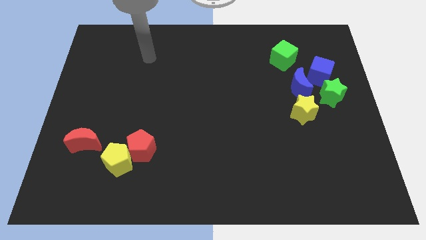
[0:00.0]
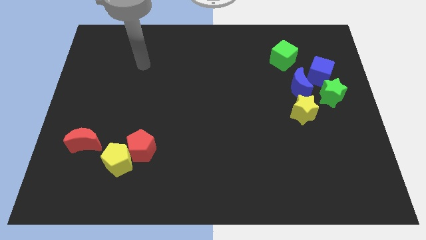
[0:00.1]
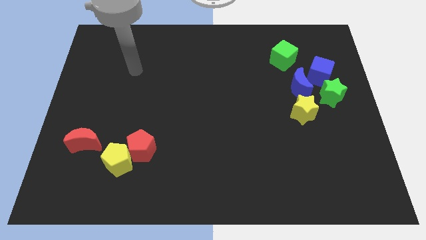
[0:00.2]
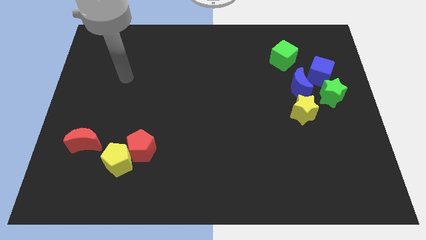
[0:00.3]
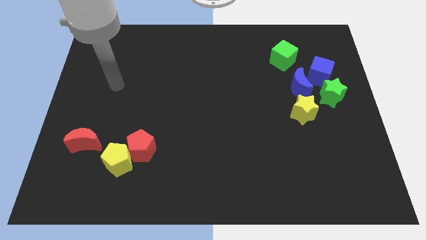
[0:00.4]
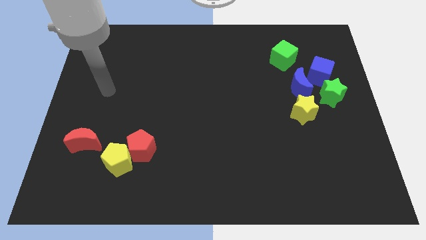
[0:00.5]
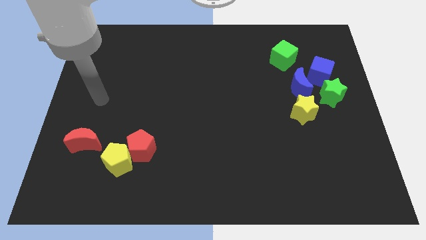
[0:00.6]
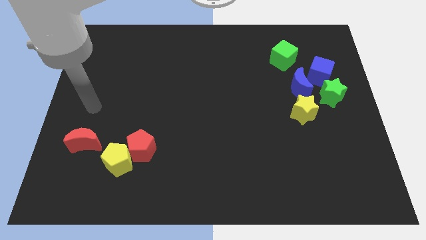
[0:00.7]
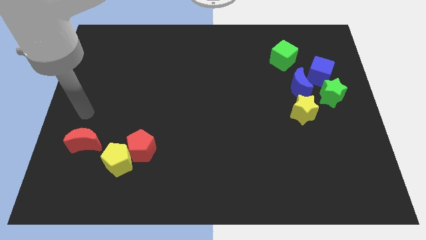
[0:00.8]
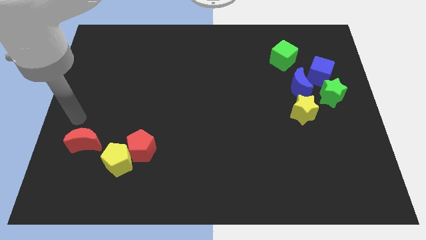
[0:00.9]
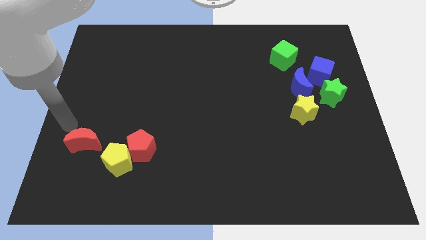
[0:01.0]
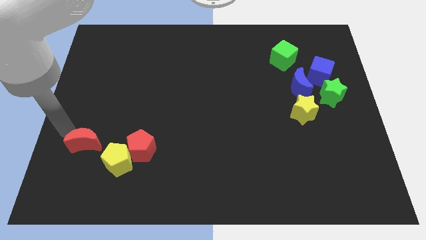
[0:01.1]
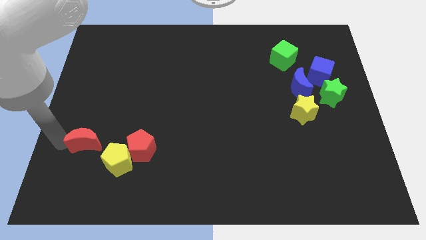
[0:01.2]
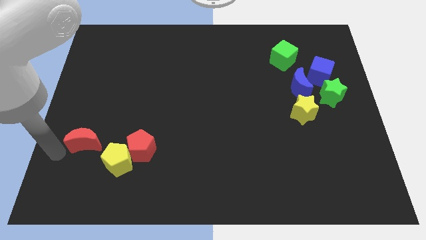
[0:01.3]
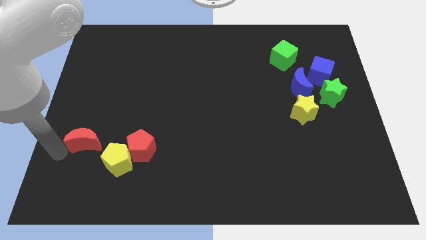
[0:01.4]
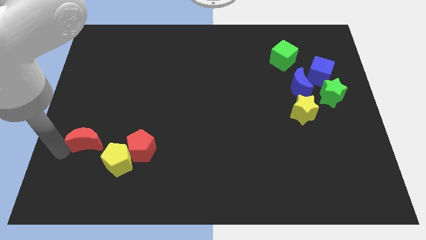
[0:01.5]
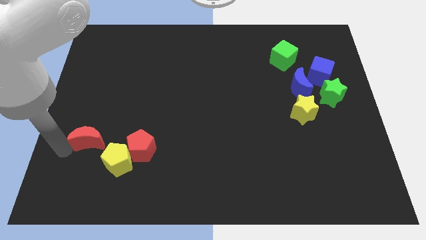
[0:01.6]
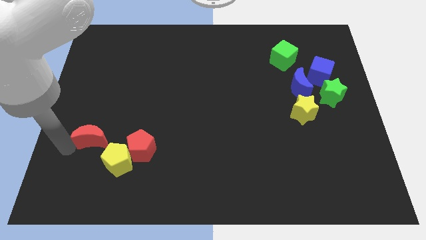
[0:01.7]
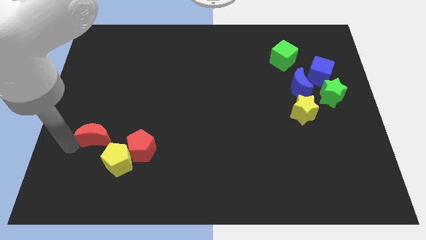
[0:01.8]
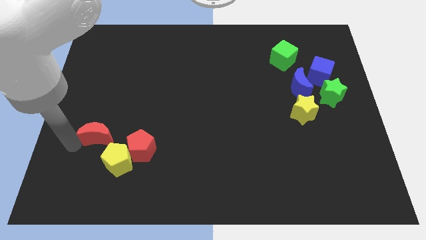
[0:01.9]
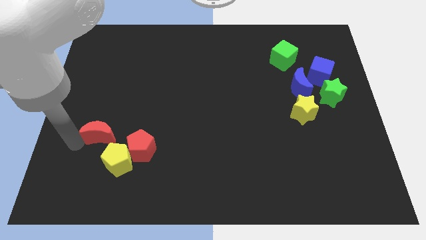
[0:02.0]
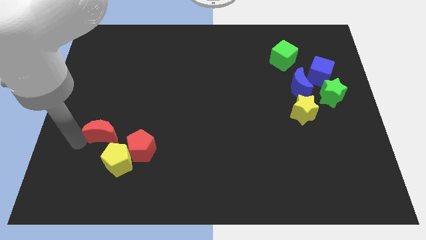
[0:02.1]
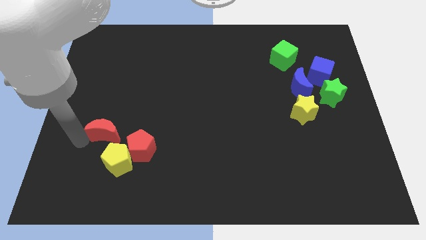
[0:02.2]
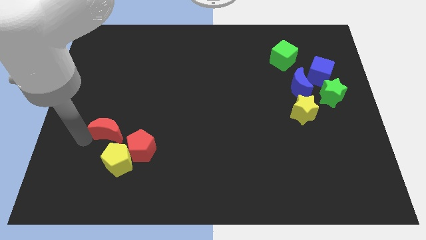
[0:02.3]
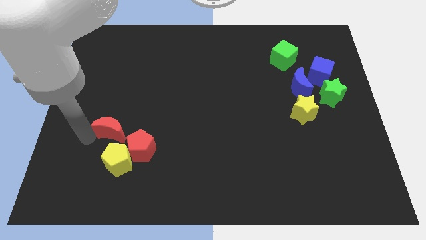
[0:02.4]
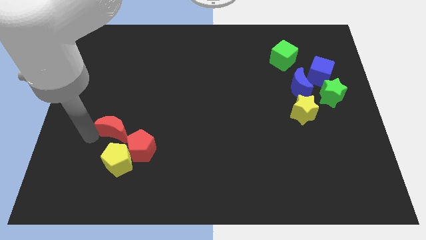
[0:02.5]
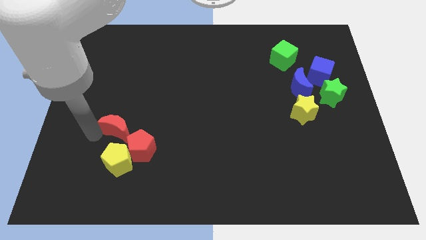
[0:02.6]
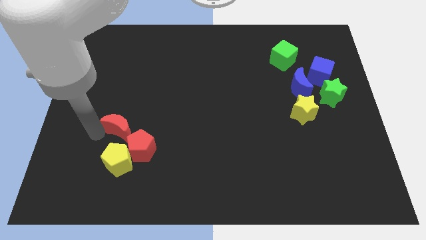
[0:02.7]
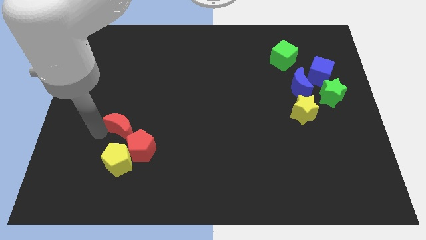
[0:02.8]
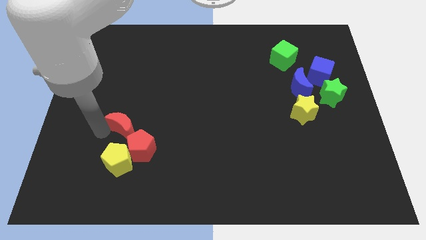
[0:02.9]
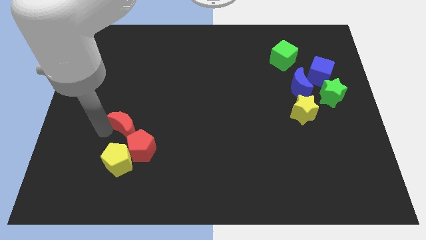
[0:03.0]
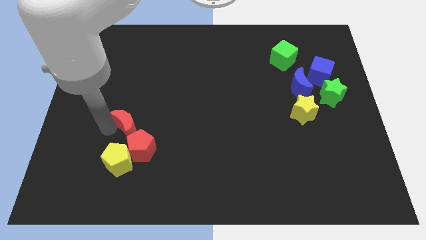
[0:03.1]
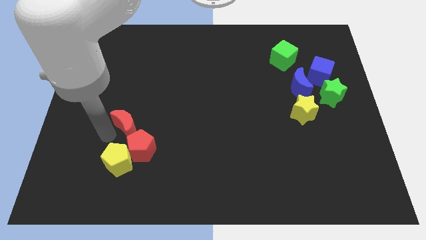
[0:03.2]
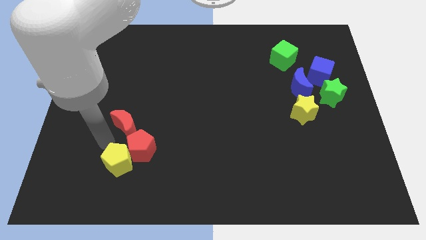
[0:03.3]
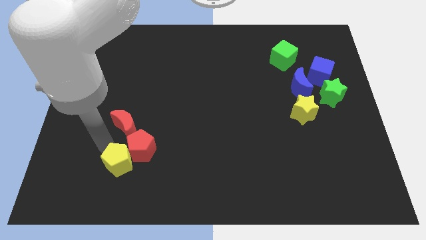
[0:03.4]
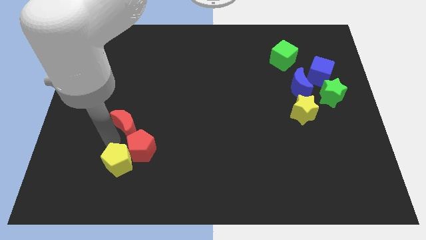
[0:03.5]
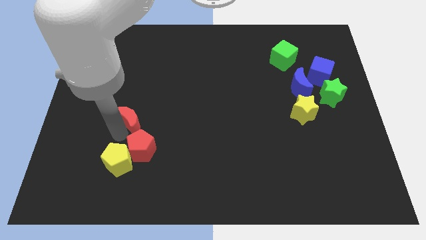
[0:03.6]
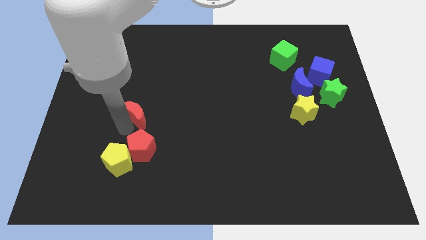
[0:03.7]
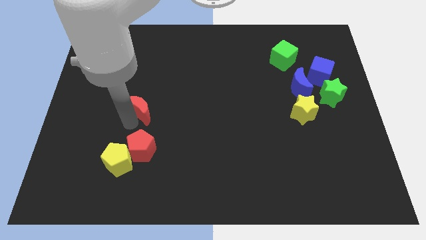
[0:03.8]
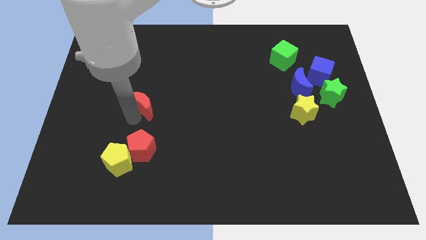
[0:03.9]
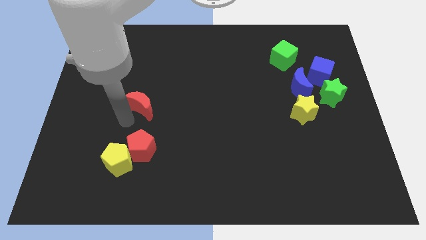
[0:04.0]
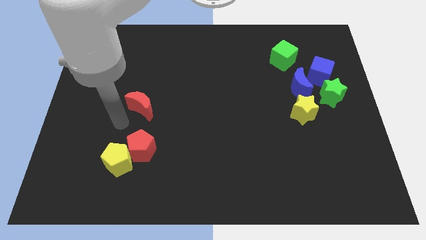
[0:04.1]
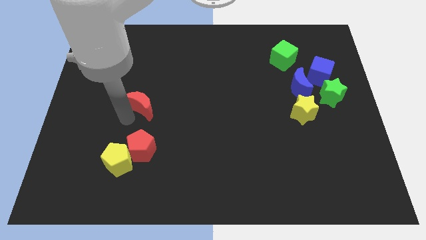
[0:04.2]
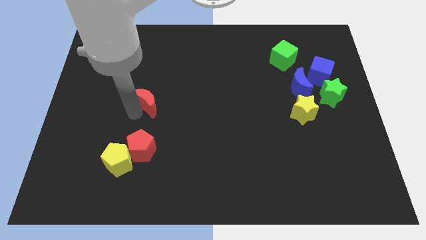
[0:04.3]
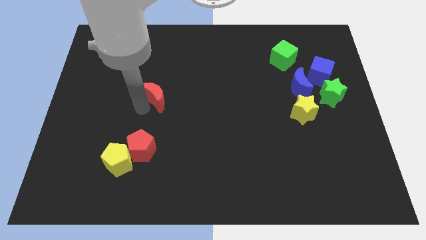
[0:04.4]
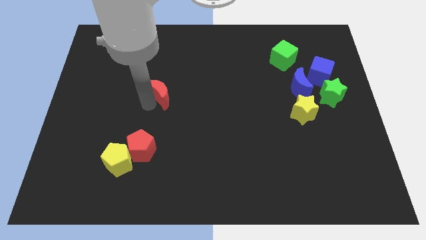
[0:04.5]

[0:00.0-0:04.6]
push the red moon up and to the right

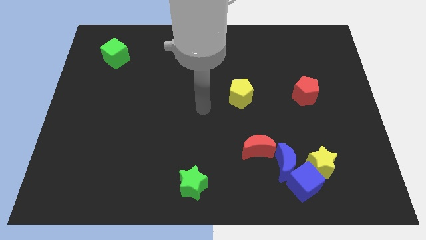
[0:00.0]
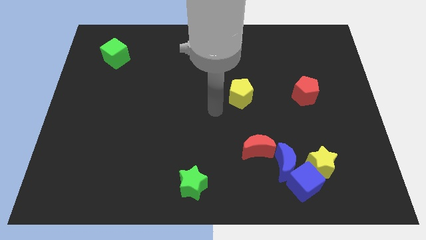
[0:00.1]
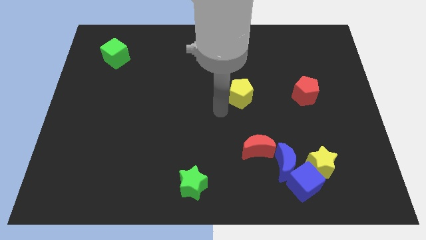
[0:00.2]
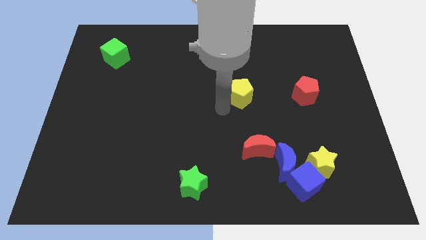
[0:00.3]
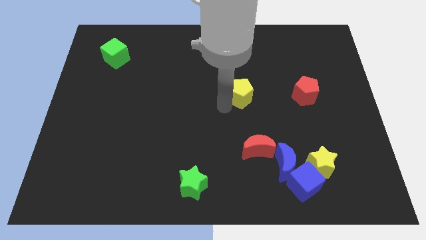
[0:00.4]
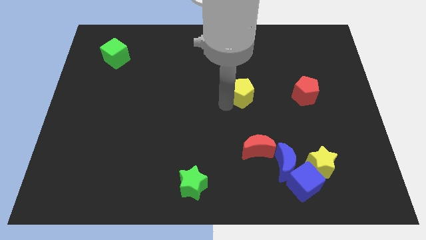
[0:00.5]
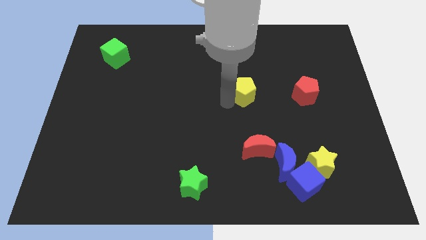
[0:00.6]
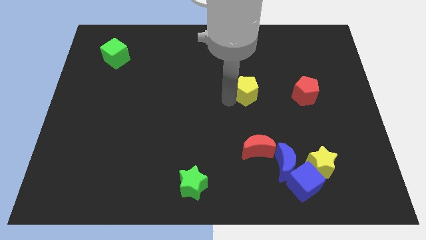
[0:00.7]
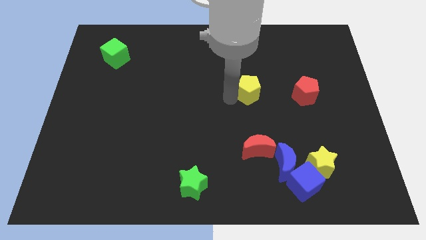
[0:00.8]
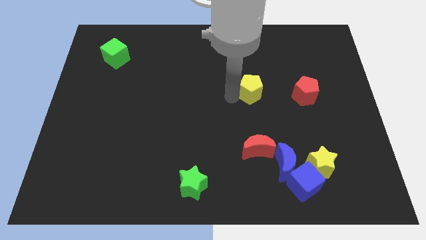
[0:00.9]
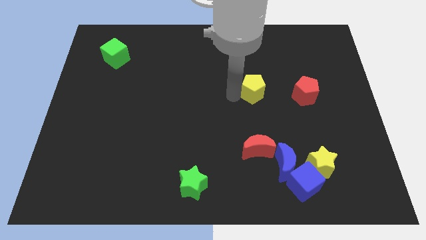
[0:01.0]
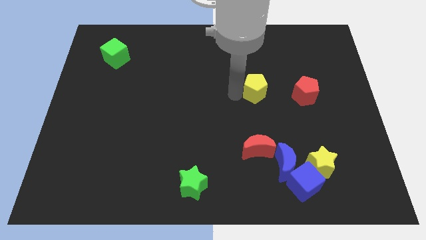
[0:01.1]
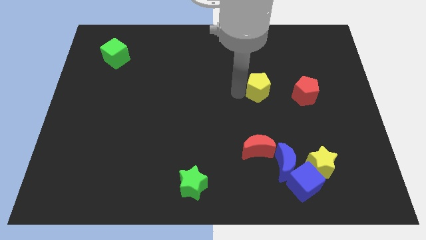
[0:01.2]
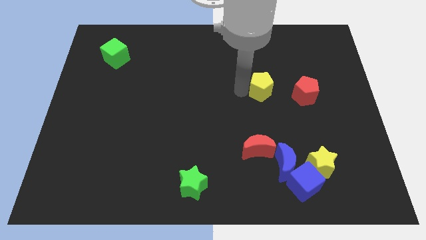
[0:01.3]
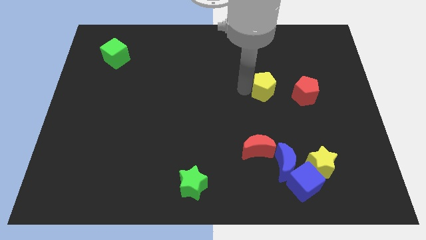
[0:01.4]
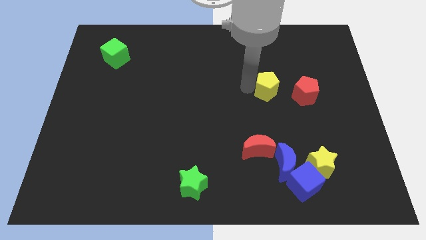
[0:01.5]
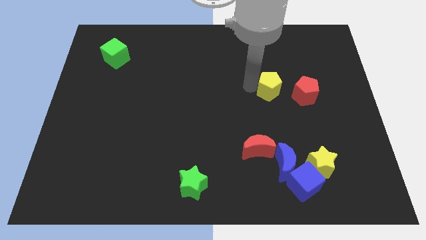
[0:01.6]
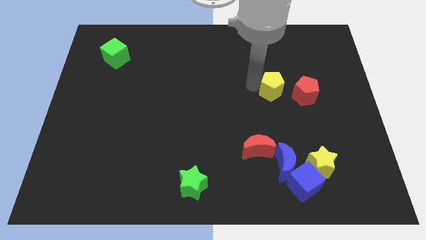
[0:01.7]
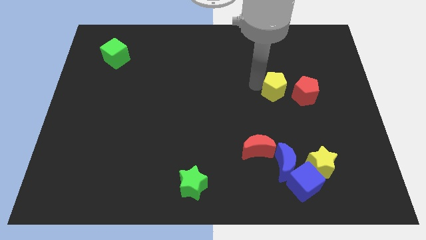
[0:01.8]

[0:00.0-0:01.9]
move the yellow pentagon slightly up and right

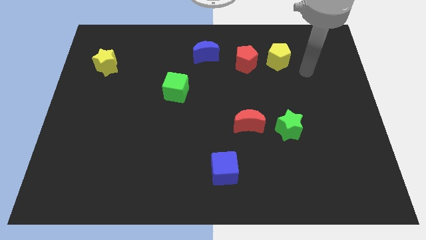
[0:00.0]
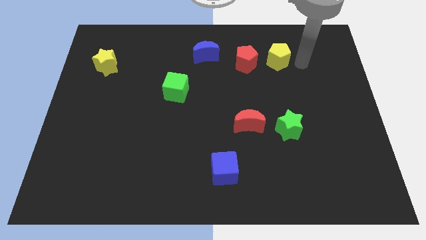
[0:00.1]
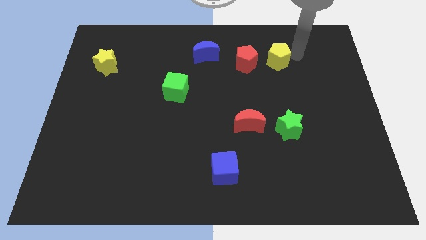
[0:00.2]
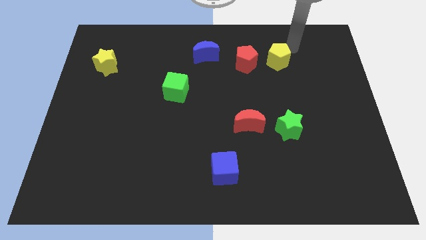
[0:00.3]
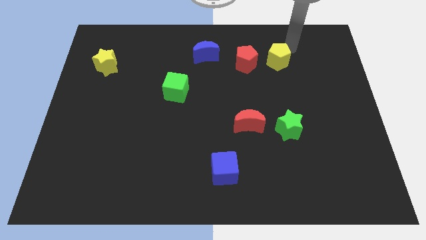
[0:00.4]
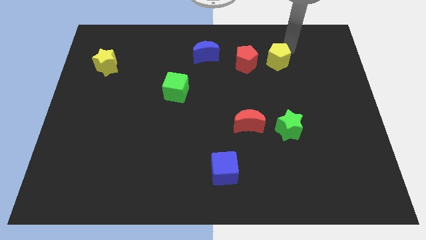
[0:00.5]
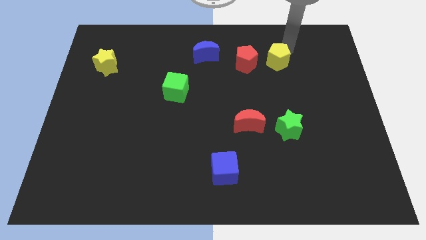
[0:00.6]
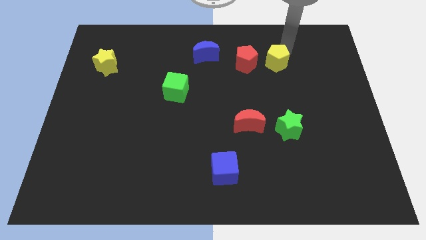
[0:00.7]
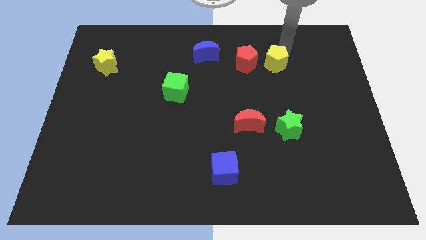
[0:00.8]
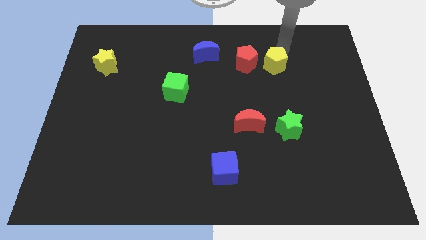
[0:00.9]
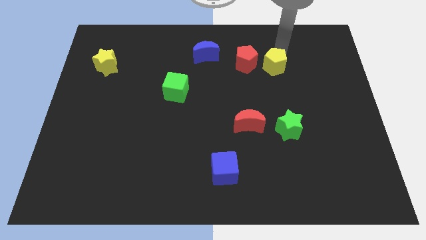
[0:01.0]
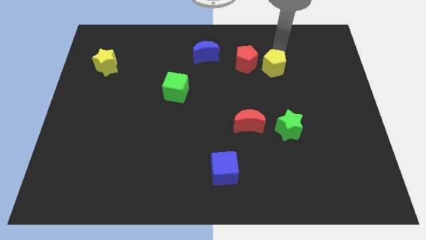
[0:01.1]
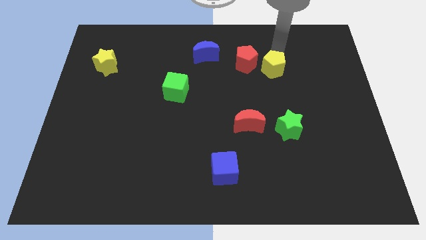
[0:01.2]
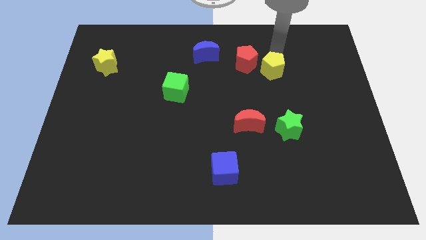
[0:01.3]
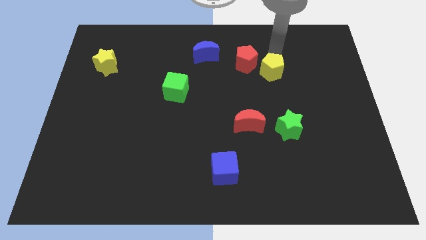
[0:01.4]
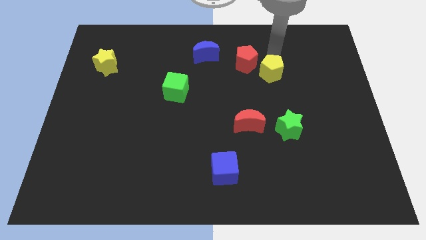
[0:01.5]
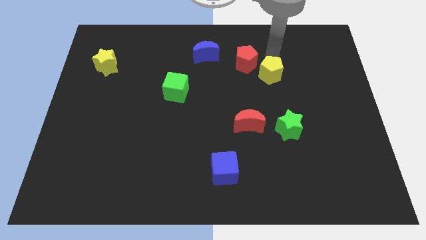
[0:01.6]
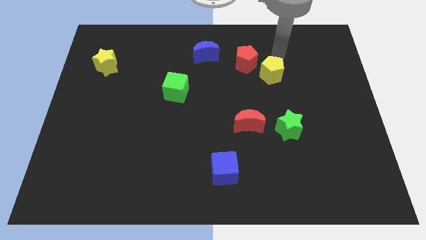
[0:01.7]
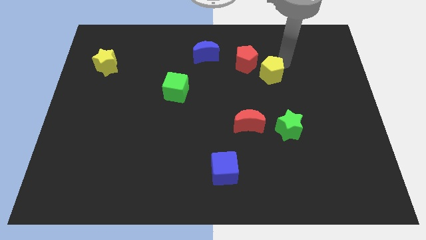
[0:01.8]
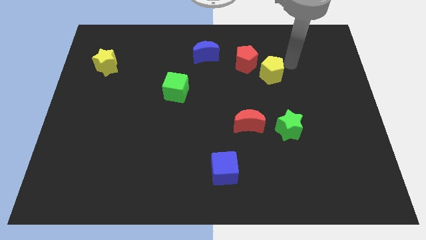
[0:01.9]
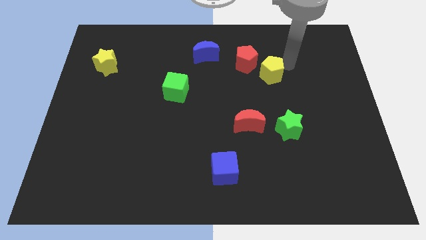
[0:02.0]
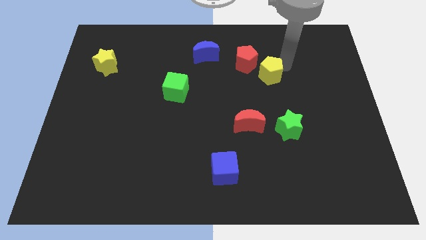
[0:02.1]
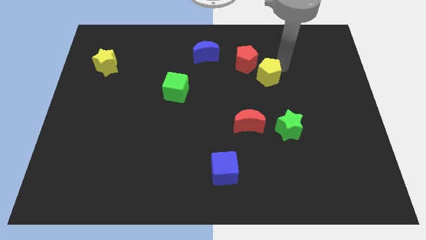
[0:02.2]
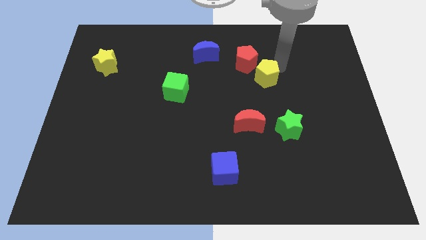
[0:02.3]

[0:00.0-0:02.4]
slide the yellow pentagon slightly diagonally downwards and left
